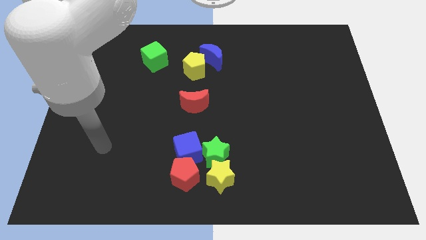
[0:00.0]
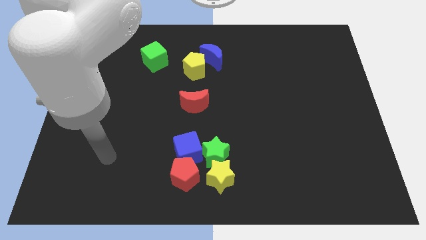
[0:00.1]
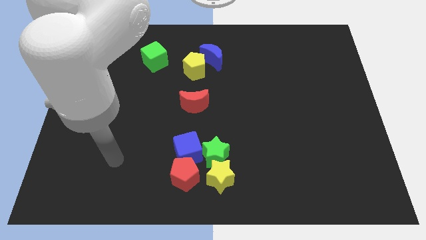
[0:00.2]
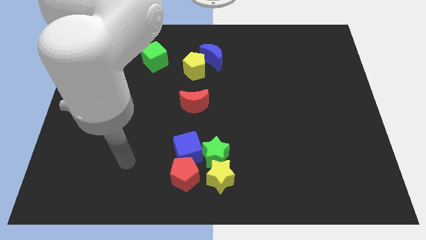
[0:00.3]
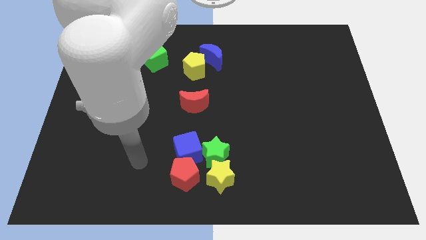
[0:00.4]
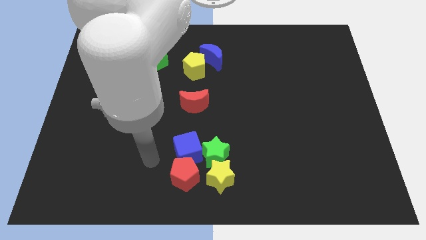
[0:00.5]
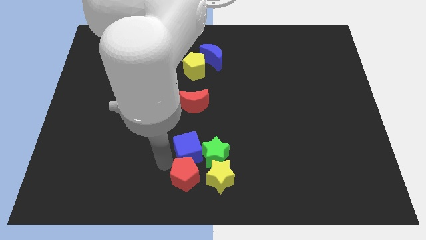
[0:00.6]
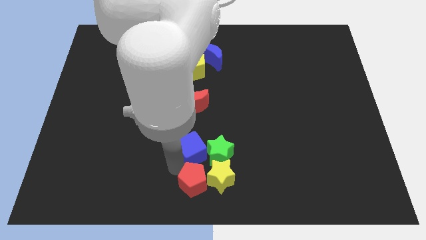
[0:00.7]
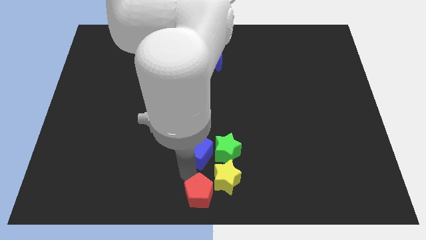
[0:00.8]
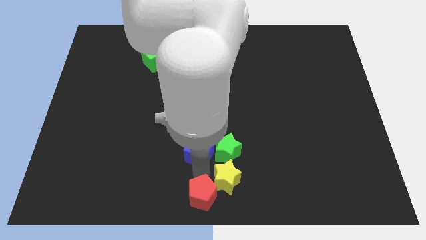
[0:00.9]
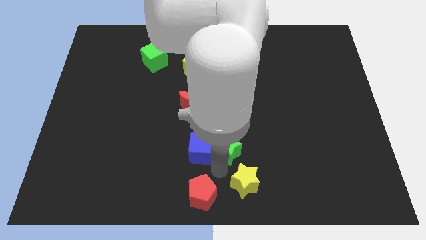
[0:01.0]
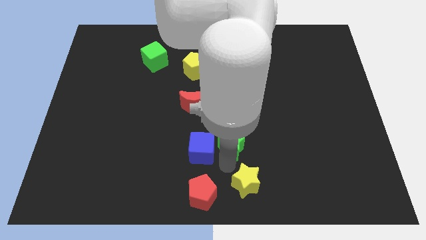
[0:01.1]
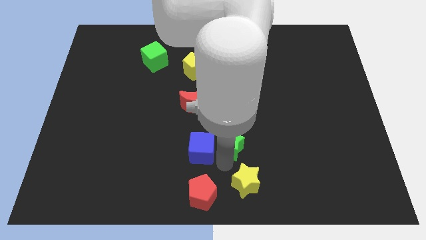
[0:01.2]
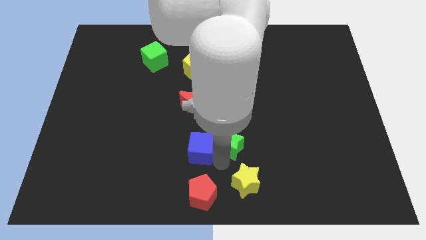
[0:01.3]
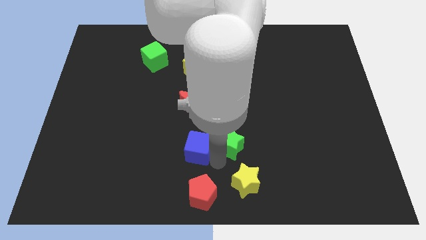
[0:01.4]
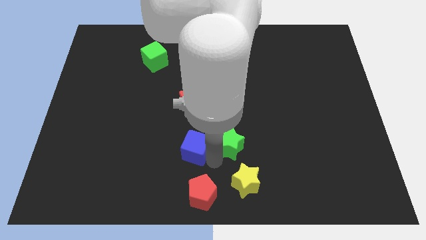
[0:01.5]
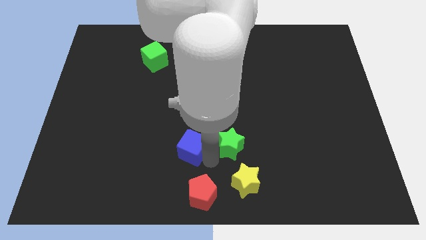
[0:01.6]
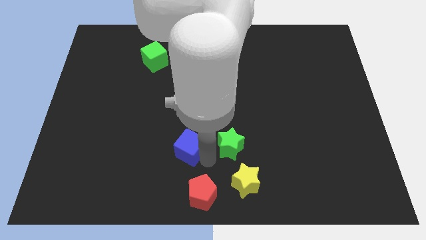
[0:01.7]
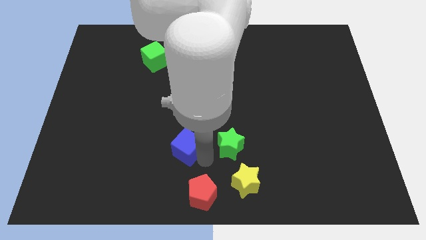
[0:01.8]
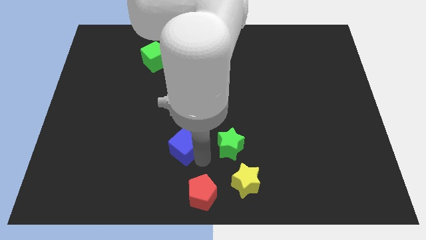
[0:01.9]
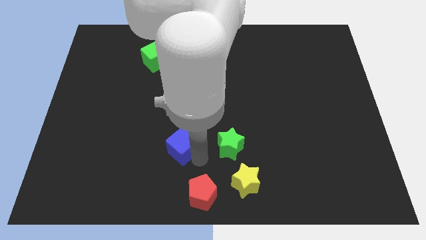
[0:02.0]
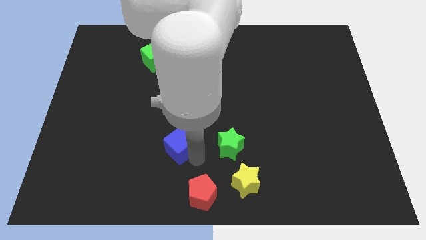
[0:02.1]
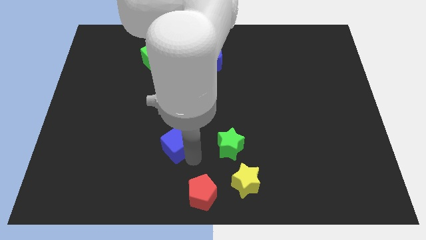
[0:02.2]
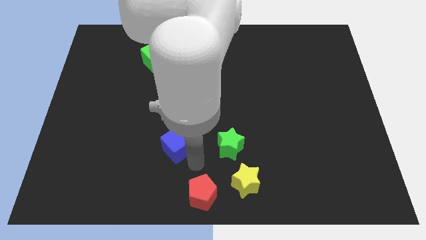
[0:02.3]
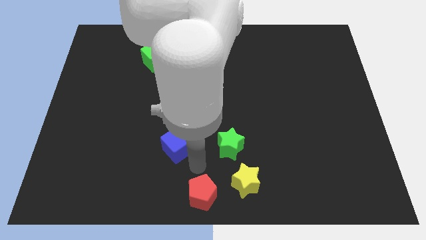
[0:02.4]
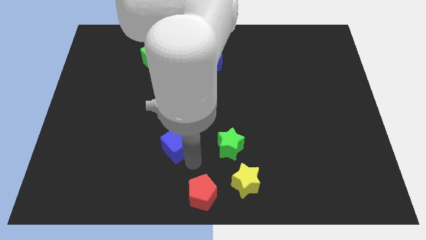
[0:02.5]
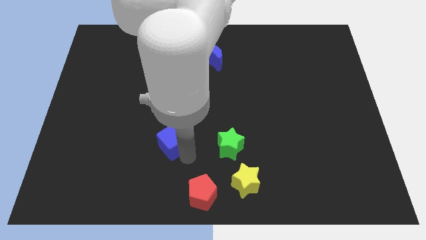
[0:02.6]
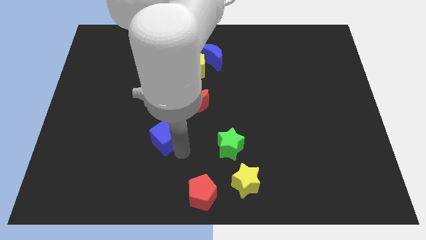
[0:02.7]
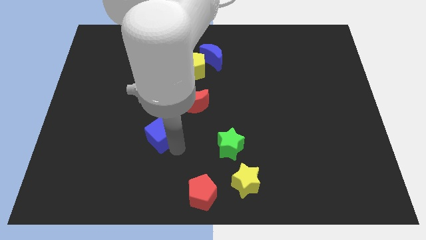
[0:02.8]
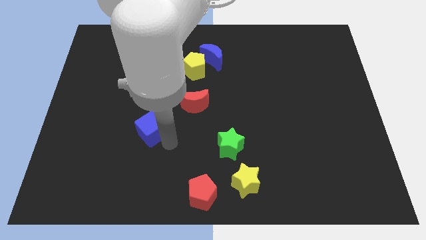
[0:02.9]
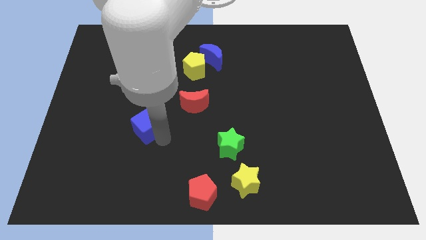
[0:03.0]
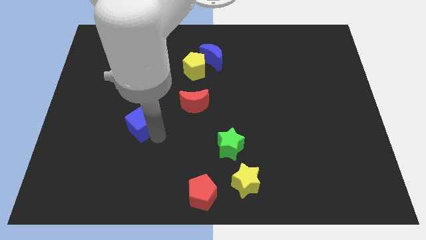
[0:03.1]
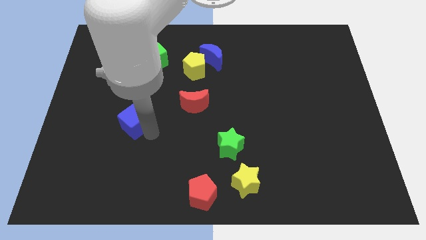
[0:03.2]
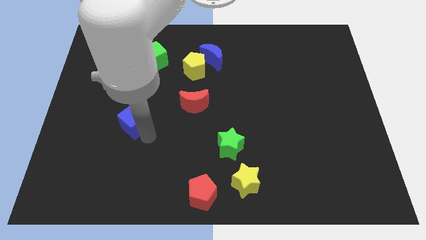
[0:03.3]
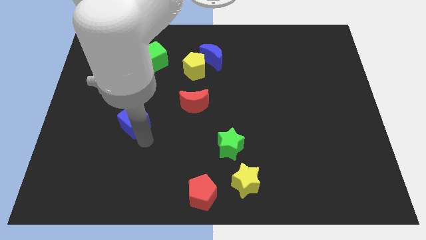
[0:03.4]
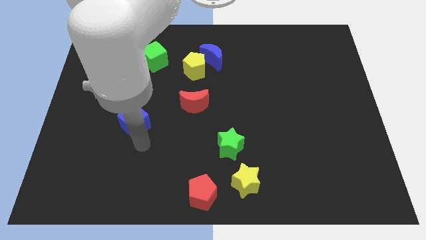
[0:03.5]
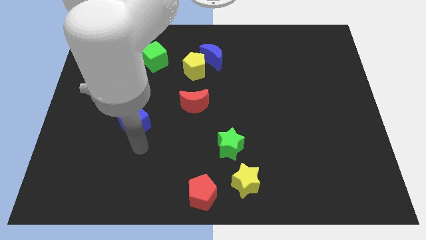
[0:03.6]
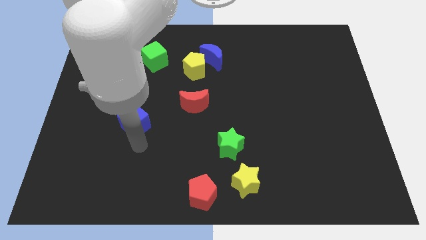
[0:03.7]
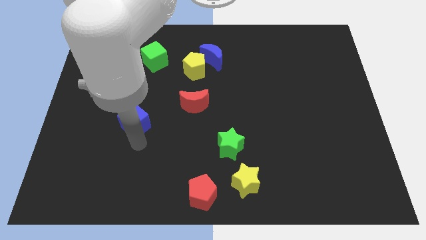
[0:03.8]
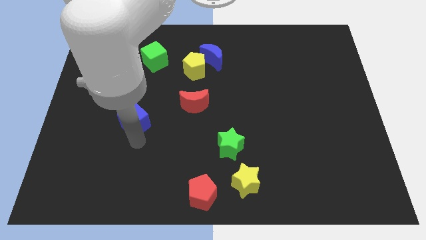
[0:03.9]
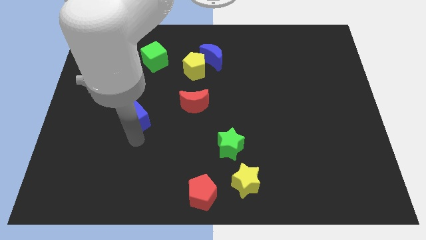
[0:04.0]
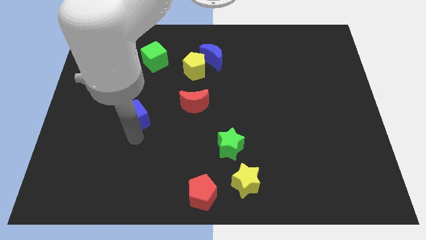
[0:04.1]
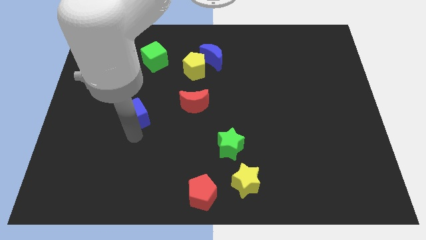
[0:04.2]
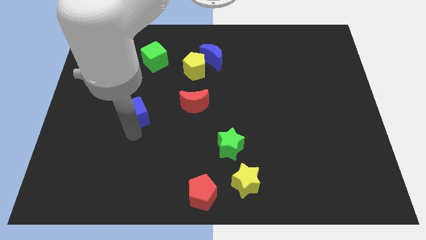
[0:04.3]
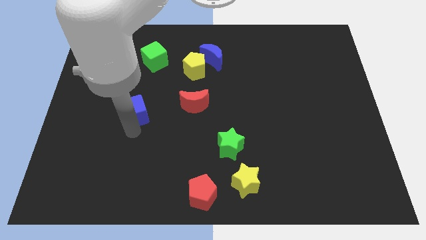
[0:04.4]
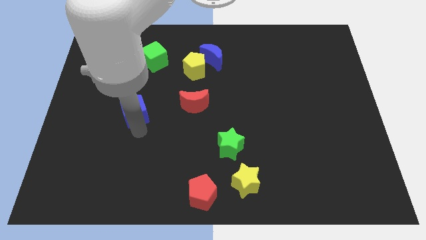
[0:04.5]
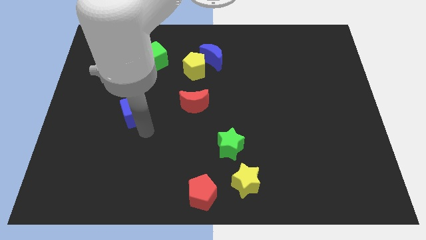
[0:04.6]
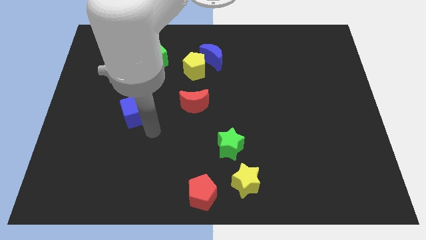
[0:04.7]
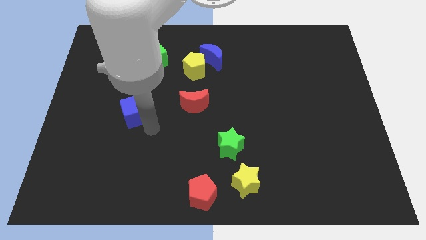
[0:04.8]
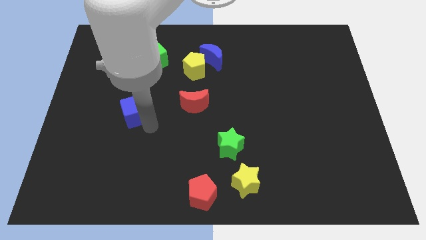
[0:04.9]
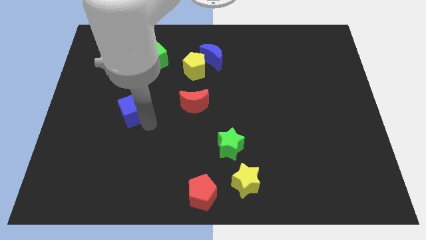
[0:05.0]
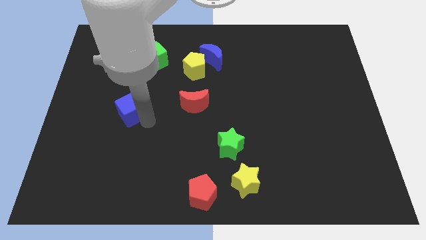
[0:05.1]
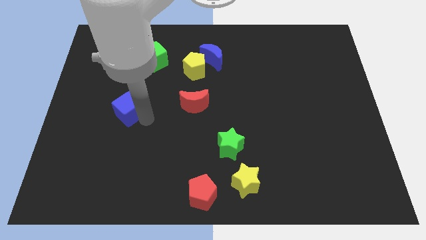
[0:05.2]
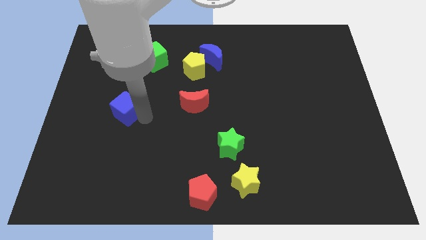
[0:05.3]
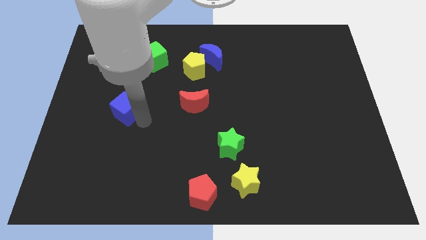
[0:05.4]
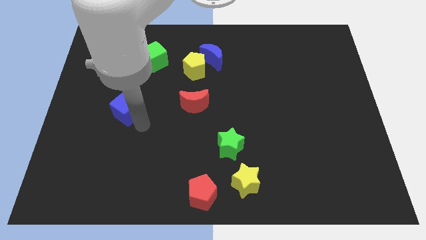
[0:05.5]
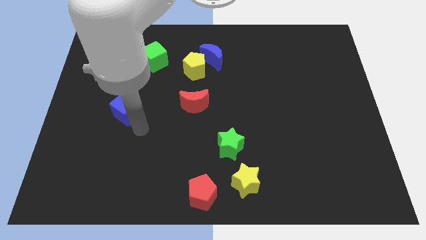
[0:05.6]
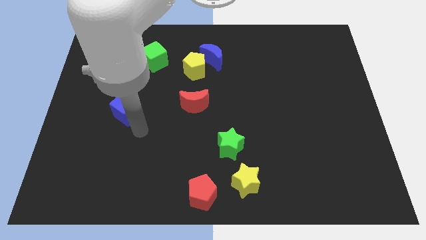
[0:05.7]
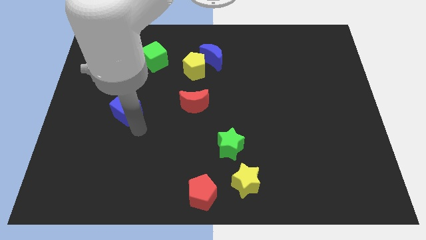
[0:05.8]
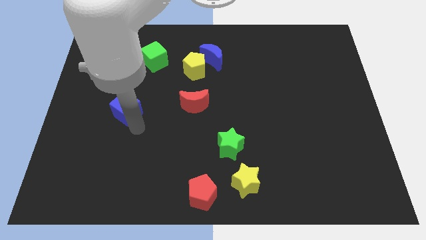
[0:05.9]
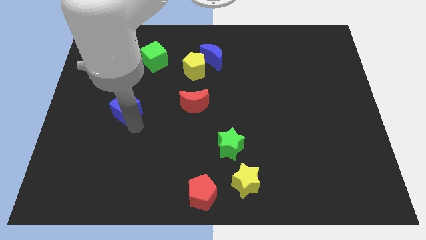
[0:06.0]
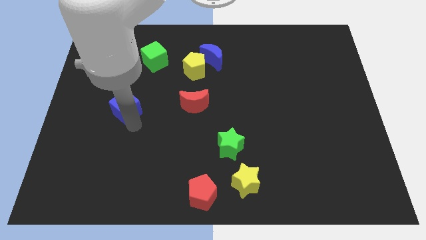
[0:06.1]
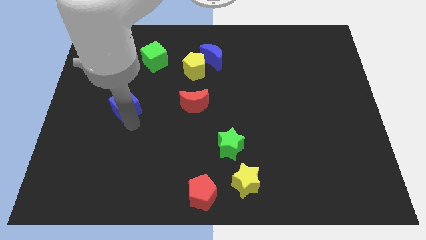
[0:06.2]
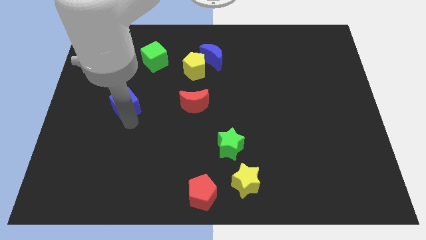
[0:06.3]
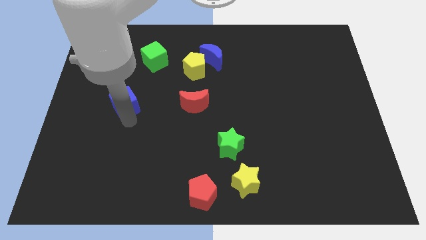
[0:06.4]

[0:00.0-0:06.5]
push the blue cube diagonally up and left

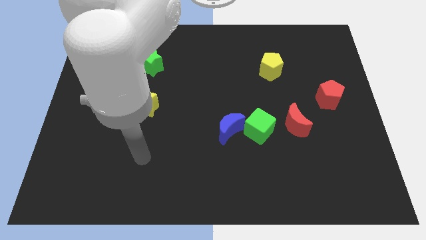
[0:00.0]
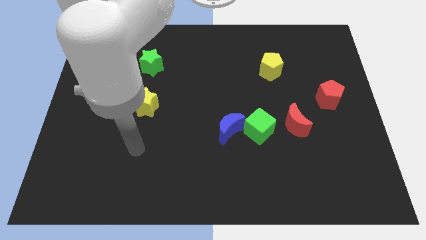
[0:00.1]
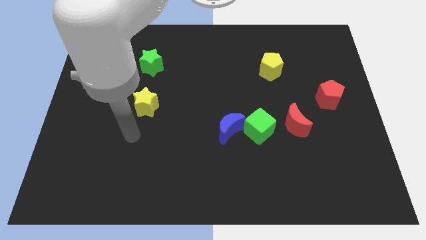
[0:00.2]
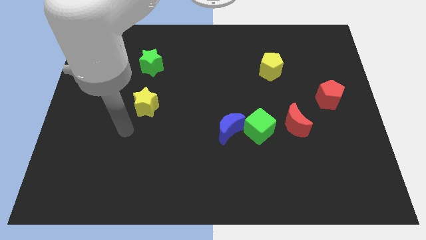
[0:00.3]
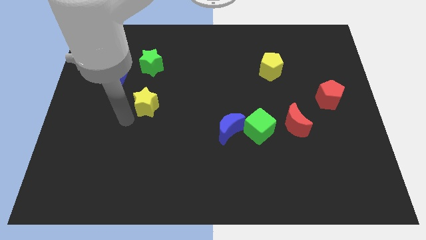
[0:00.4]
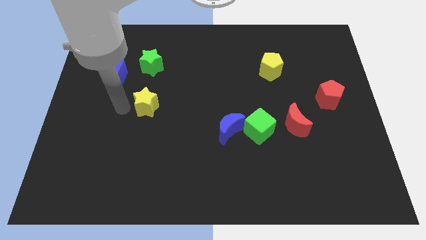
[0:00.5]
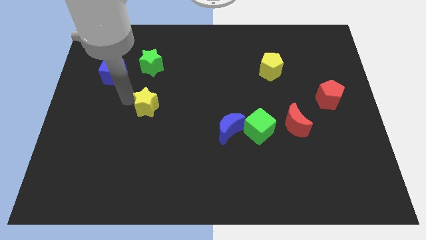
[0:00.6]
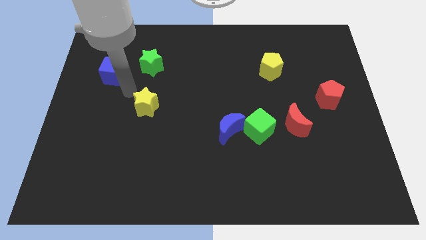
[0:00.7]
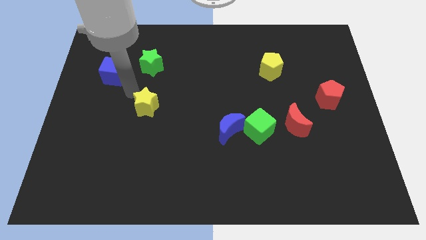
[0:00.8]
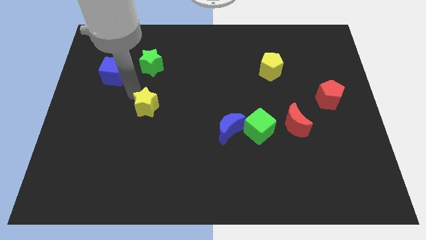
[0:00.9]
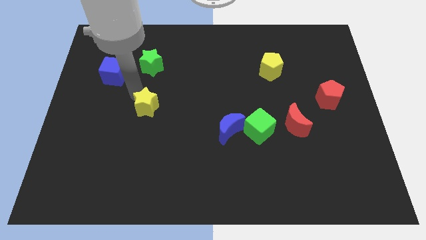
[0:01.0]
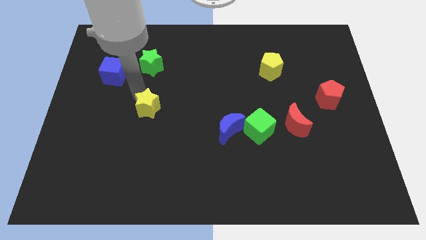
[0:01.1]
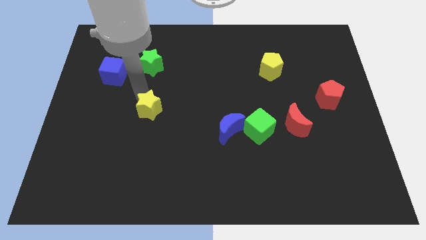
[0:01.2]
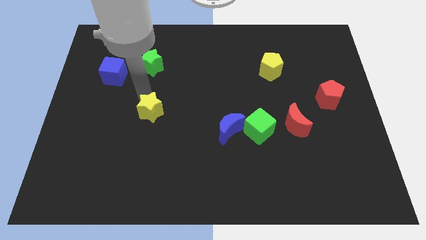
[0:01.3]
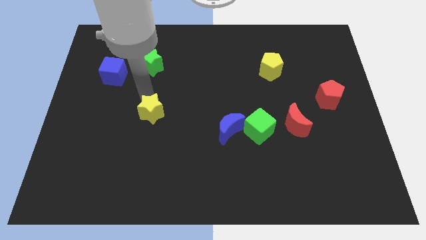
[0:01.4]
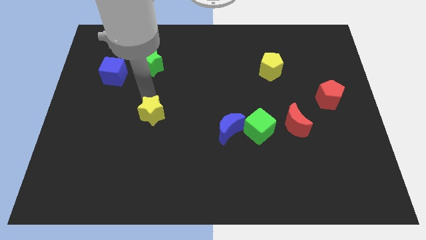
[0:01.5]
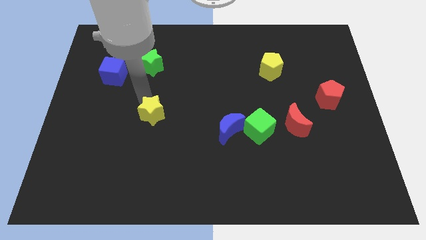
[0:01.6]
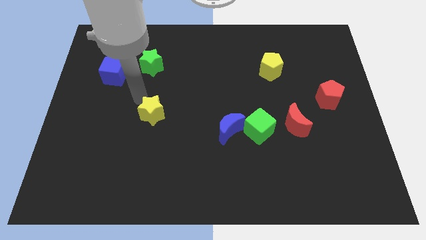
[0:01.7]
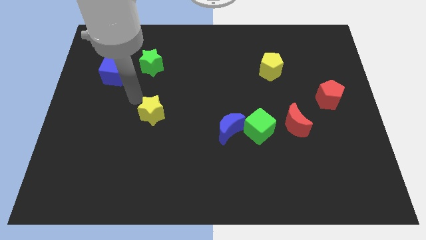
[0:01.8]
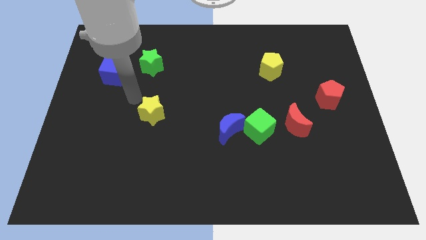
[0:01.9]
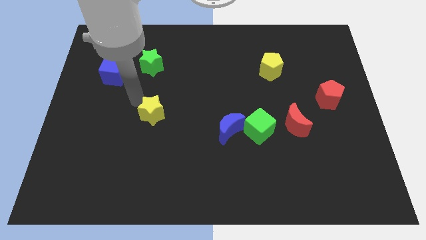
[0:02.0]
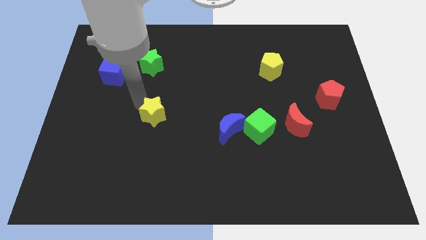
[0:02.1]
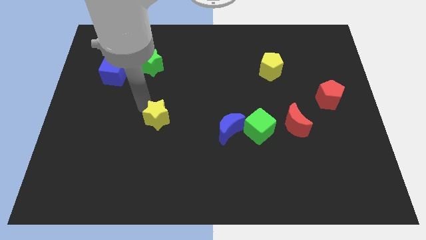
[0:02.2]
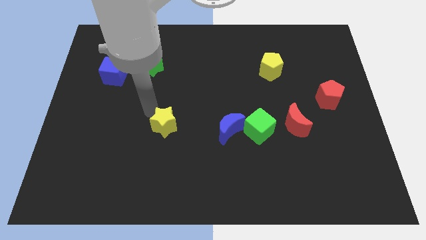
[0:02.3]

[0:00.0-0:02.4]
move the yellow star downwards and right diagonally somewhat
